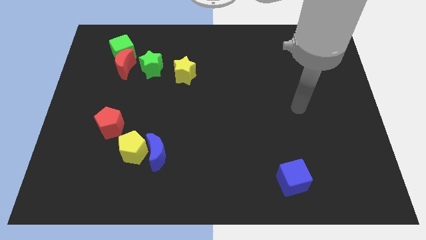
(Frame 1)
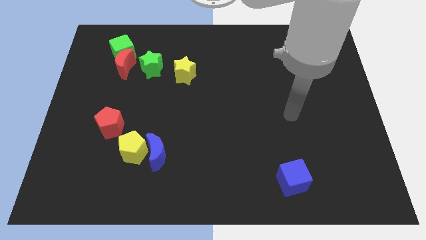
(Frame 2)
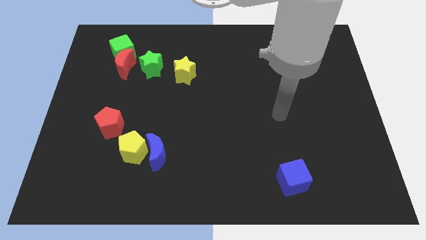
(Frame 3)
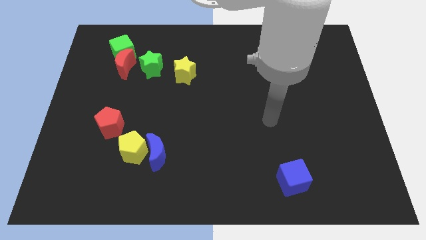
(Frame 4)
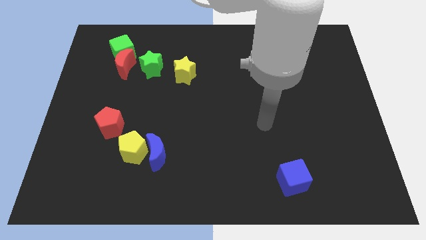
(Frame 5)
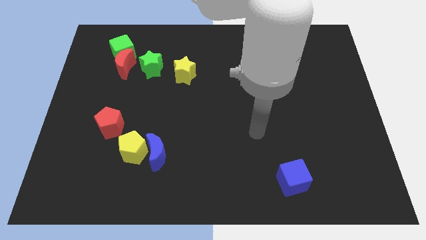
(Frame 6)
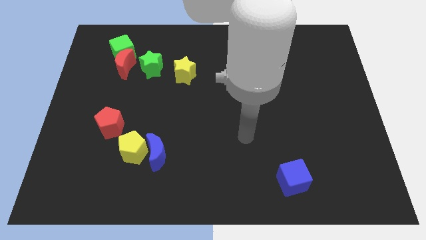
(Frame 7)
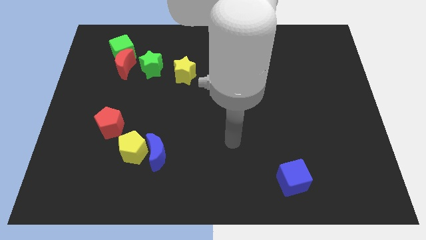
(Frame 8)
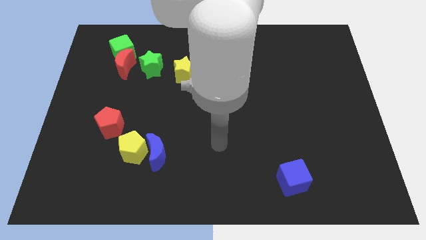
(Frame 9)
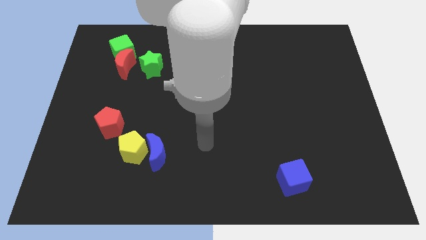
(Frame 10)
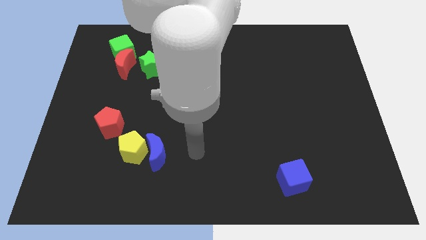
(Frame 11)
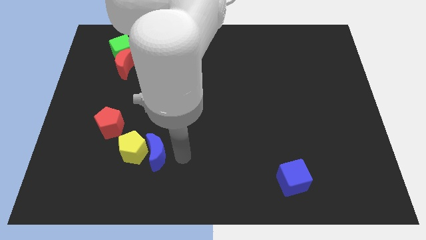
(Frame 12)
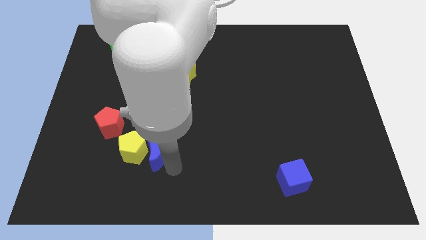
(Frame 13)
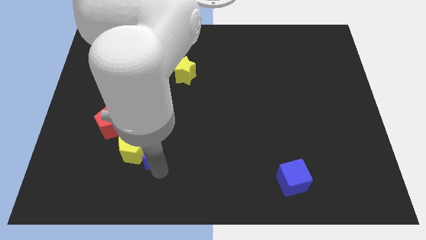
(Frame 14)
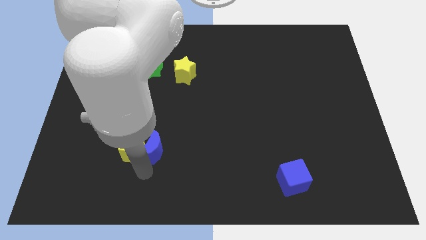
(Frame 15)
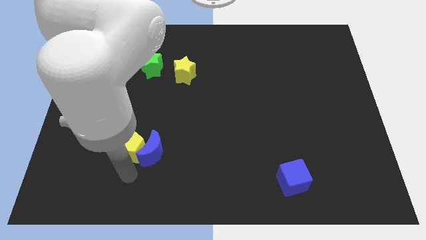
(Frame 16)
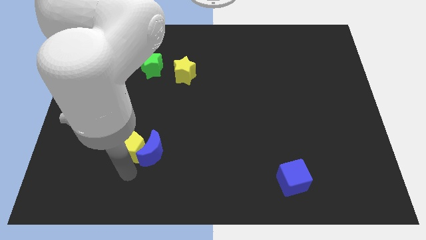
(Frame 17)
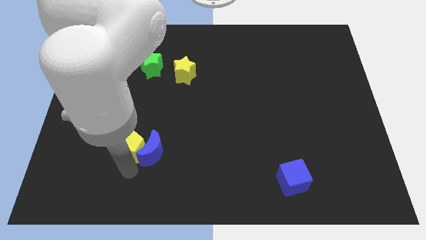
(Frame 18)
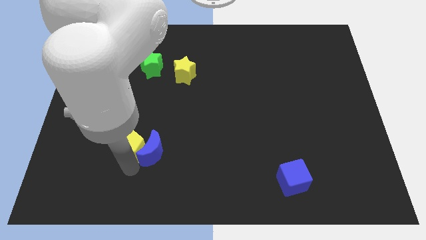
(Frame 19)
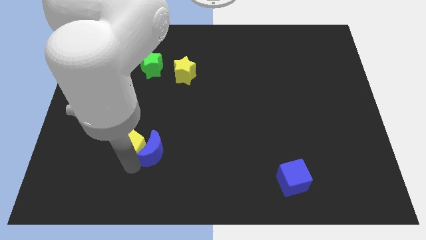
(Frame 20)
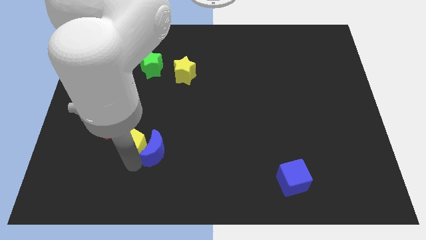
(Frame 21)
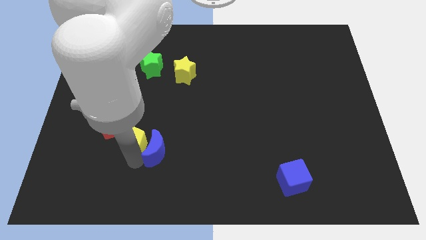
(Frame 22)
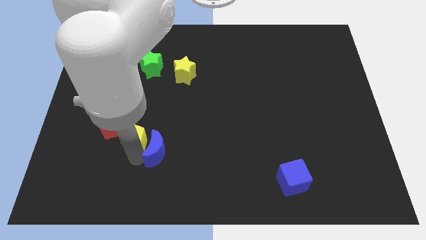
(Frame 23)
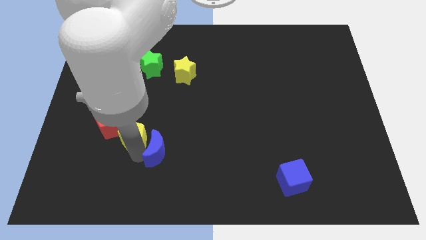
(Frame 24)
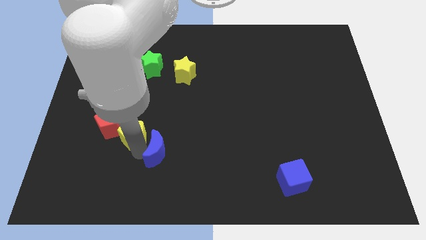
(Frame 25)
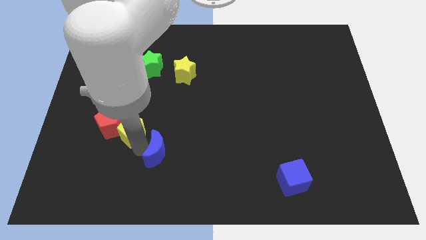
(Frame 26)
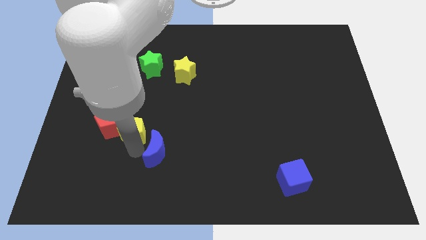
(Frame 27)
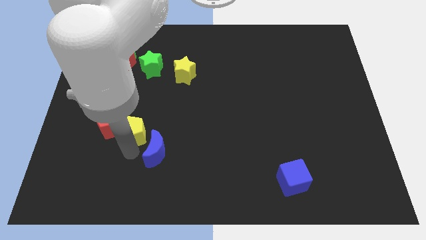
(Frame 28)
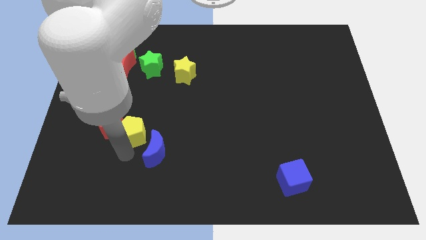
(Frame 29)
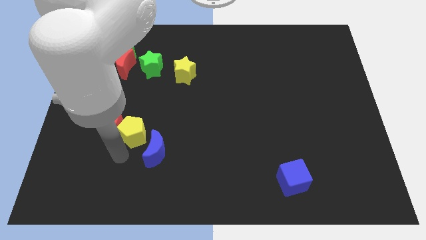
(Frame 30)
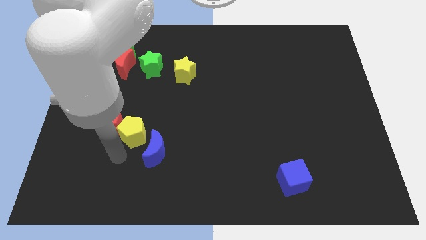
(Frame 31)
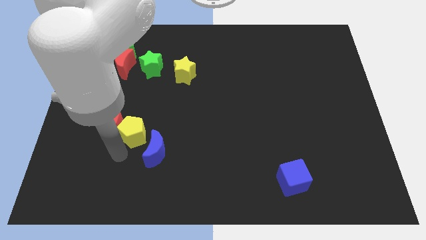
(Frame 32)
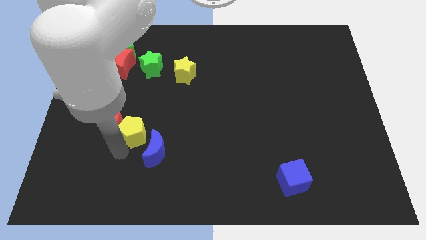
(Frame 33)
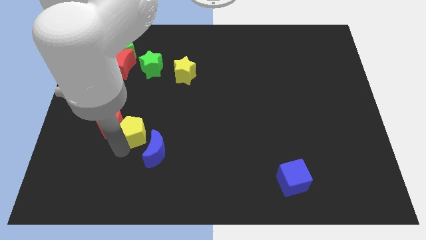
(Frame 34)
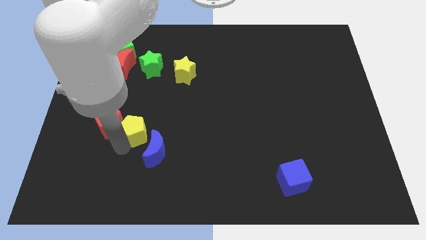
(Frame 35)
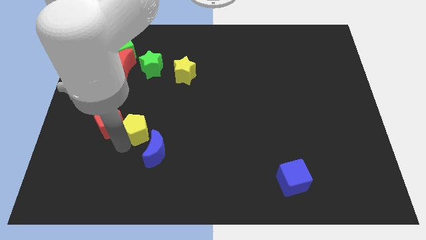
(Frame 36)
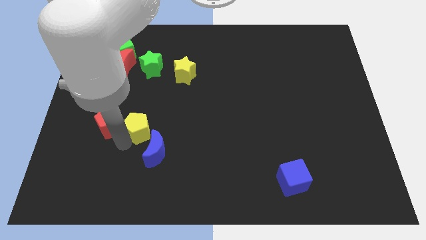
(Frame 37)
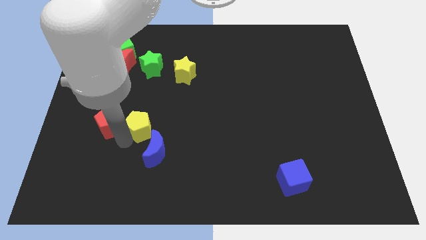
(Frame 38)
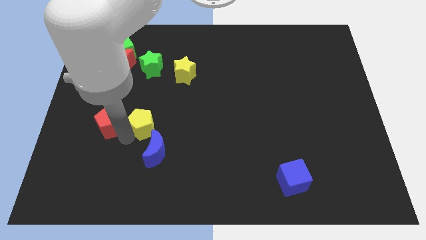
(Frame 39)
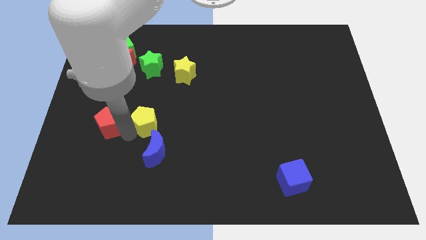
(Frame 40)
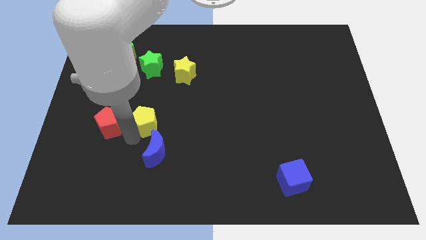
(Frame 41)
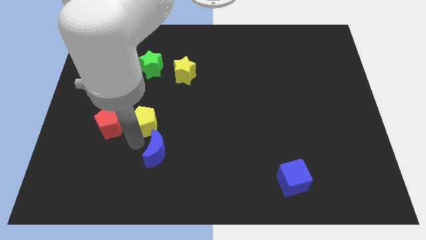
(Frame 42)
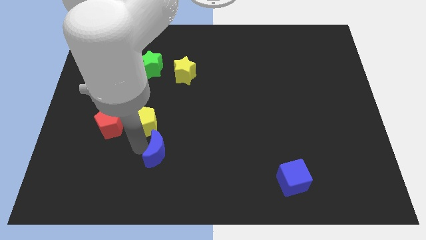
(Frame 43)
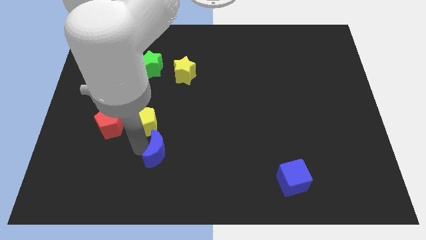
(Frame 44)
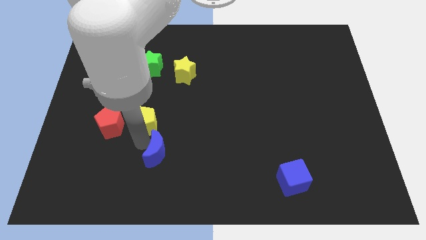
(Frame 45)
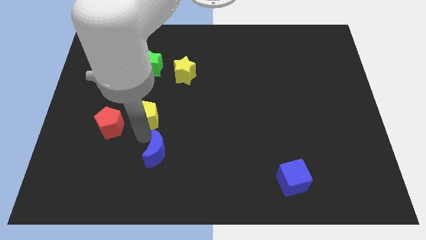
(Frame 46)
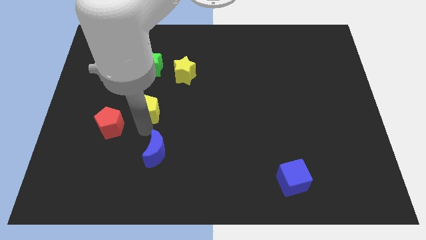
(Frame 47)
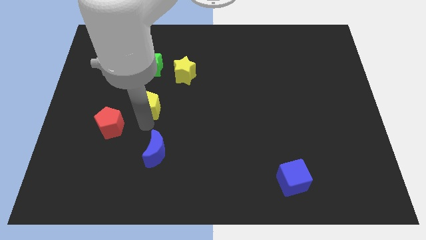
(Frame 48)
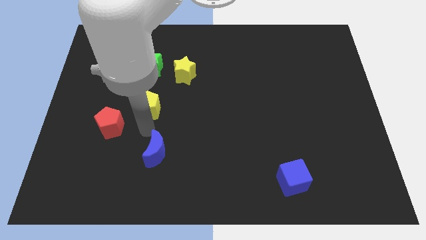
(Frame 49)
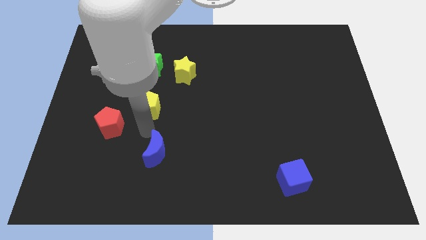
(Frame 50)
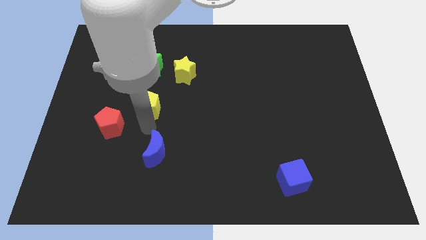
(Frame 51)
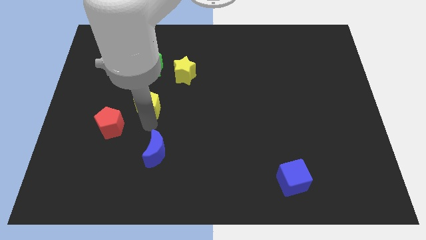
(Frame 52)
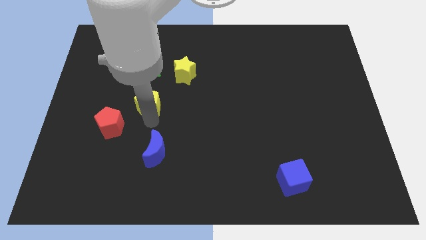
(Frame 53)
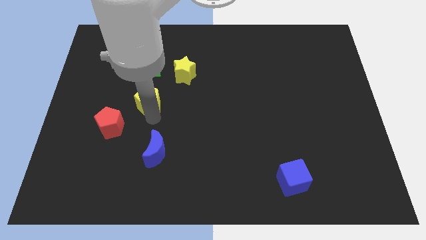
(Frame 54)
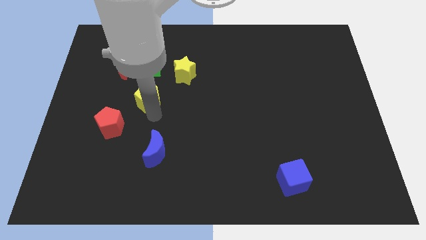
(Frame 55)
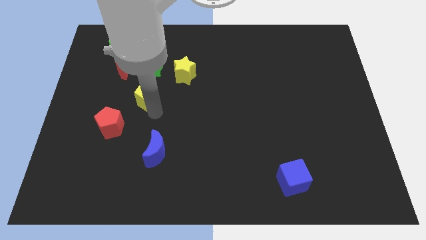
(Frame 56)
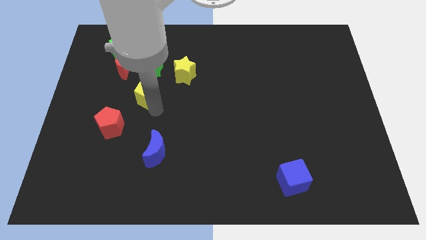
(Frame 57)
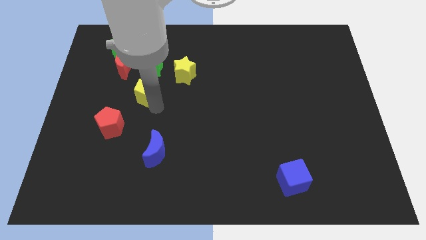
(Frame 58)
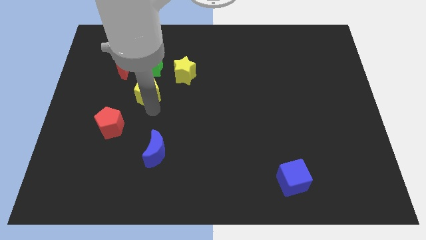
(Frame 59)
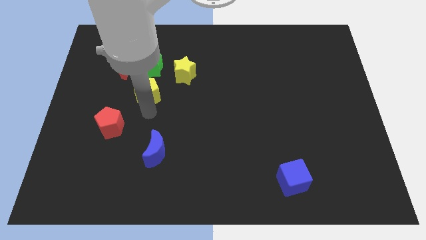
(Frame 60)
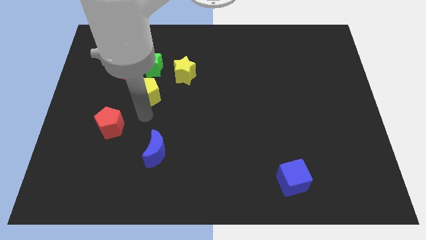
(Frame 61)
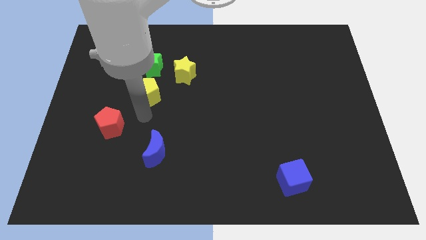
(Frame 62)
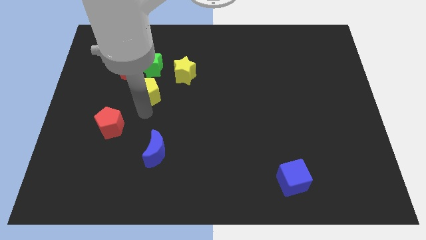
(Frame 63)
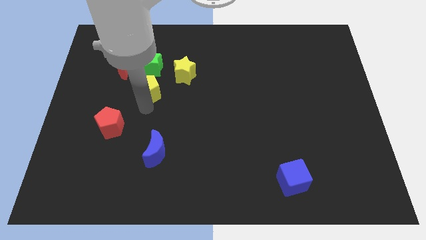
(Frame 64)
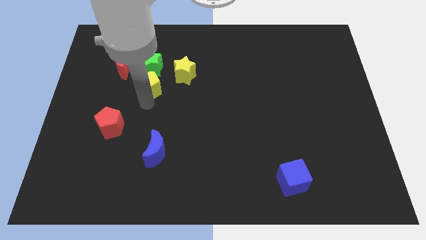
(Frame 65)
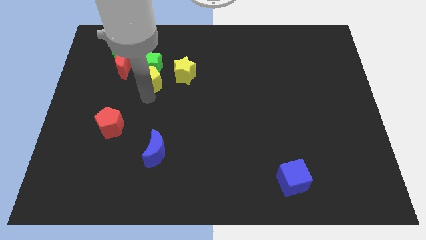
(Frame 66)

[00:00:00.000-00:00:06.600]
move the yellow pentagon next to the green star

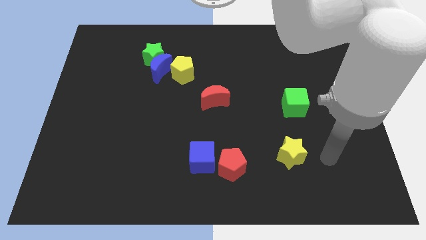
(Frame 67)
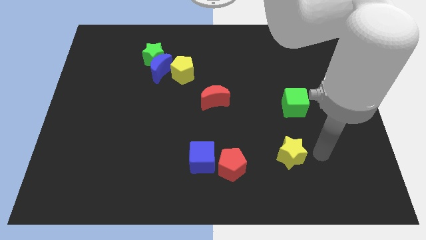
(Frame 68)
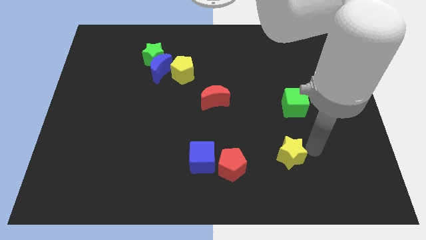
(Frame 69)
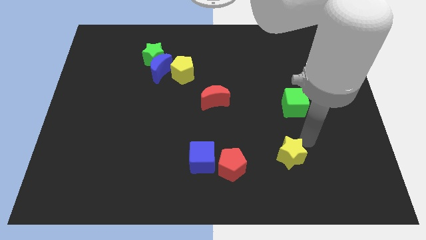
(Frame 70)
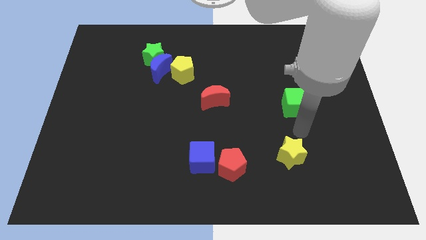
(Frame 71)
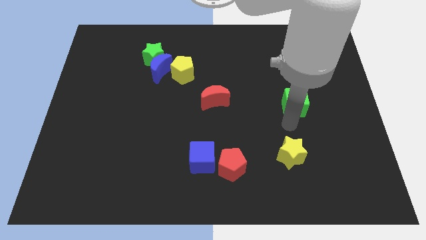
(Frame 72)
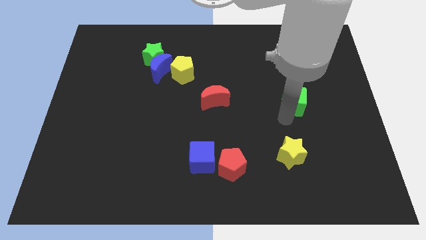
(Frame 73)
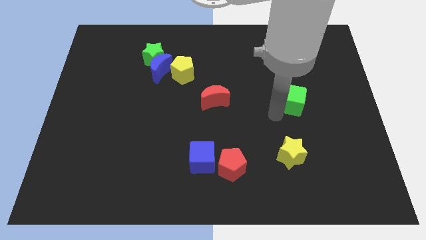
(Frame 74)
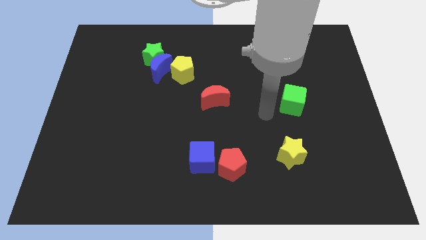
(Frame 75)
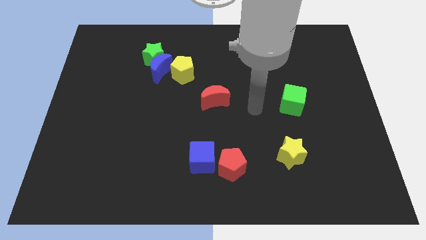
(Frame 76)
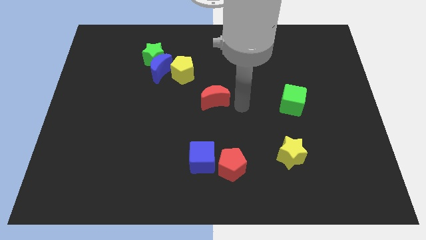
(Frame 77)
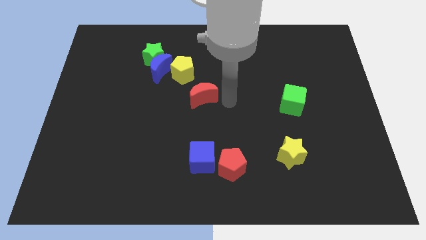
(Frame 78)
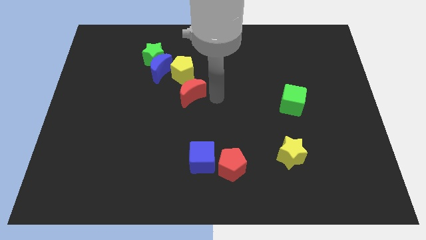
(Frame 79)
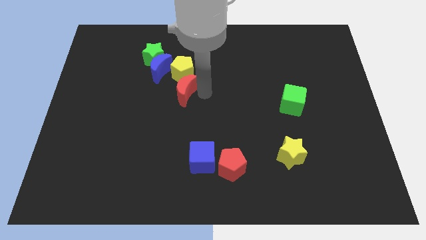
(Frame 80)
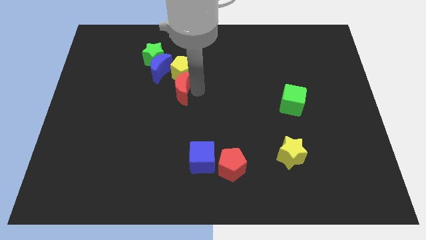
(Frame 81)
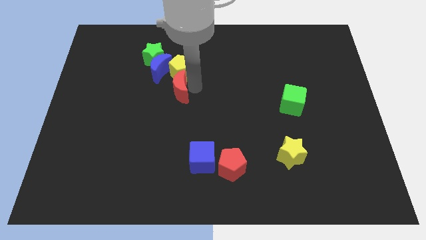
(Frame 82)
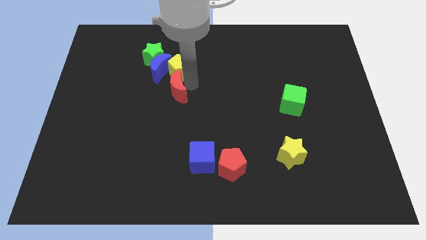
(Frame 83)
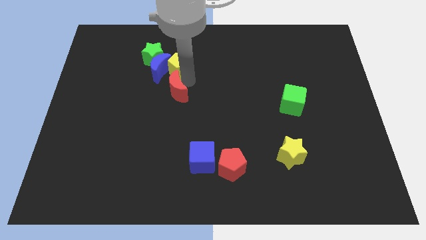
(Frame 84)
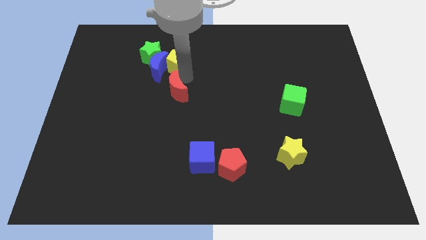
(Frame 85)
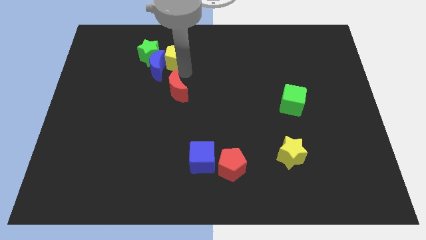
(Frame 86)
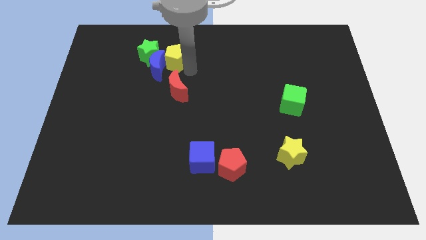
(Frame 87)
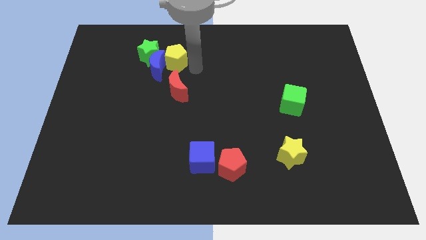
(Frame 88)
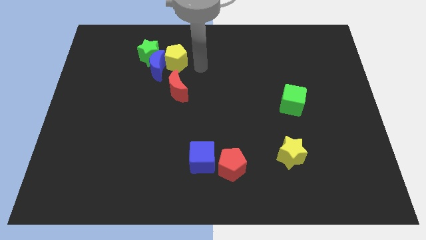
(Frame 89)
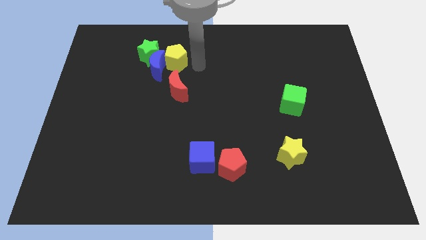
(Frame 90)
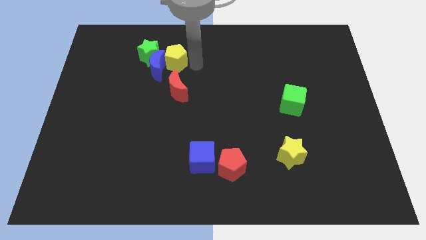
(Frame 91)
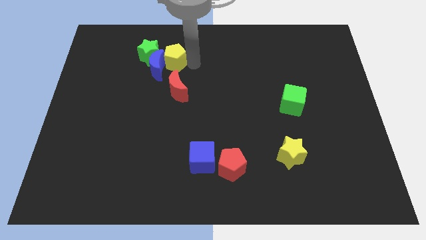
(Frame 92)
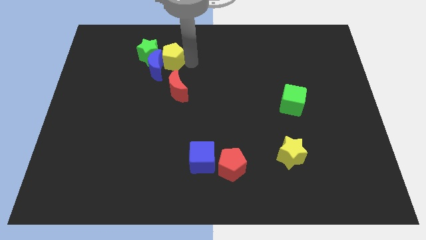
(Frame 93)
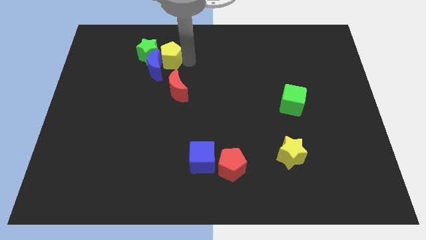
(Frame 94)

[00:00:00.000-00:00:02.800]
slide the yellow pentagon close to the green star
